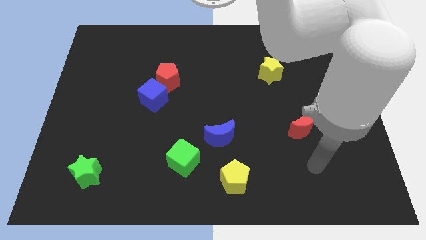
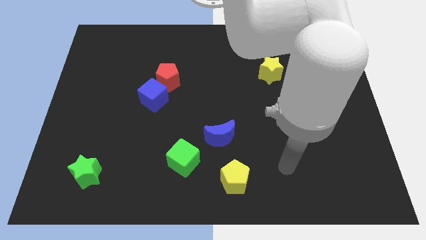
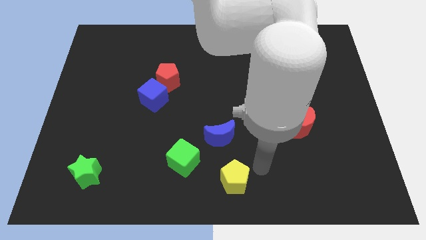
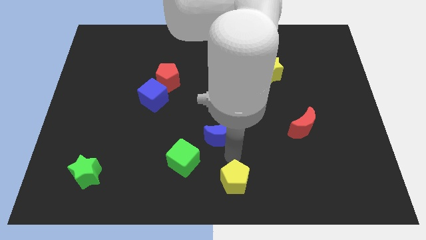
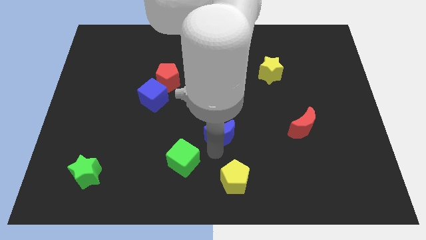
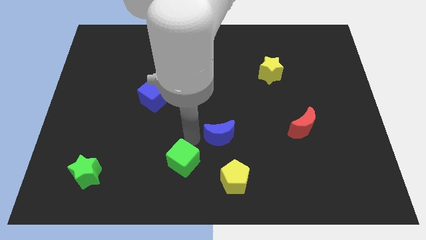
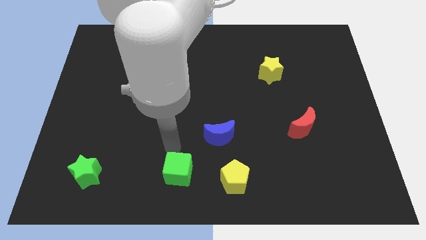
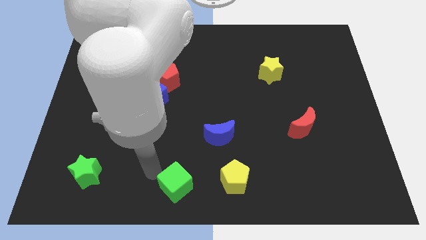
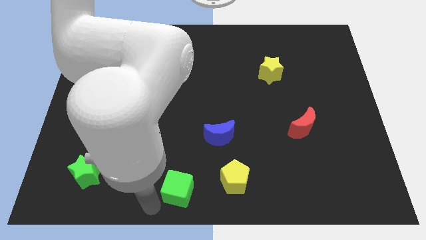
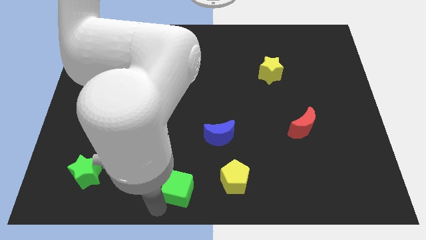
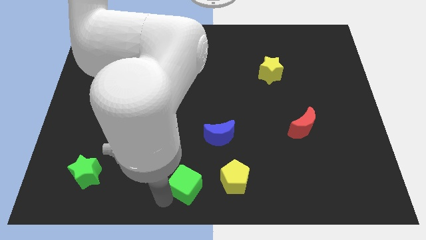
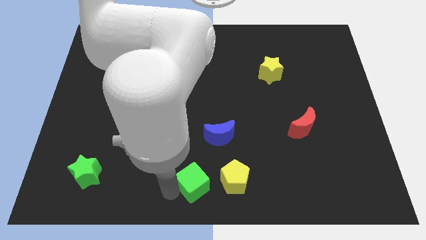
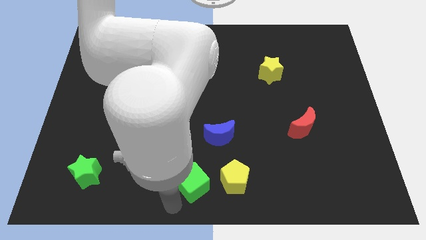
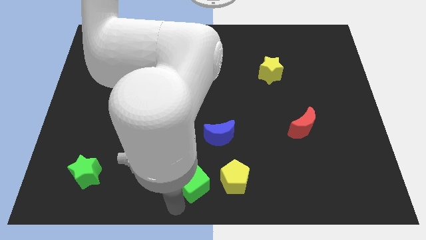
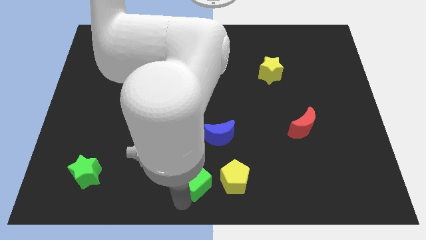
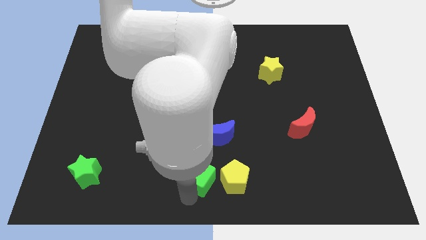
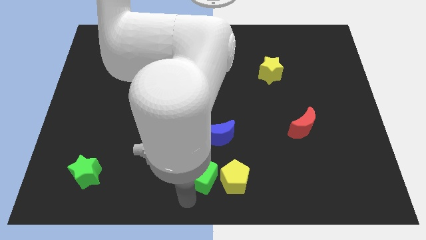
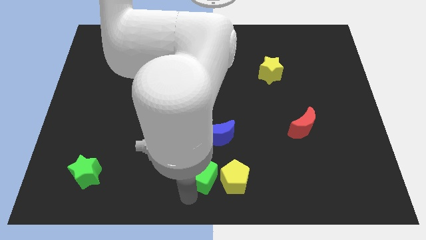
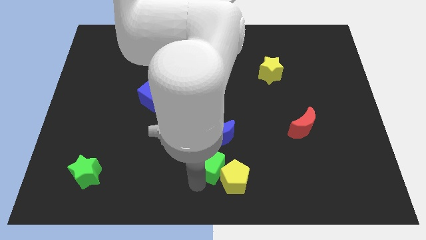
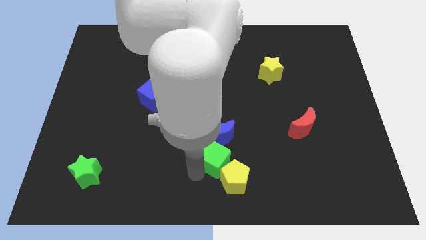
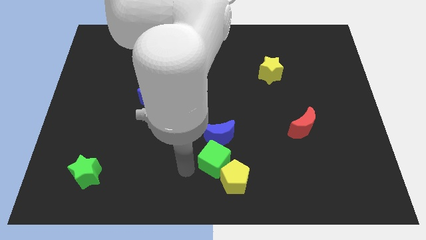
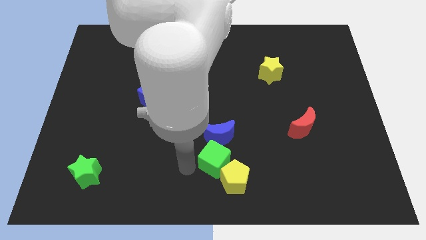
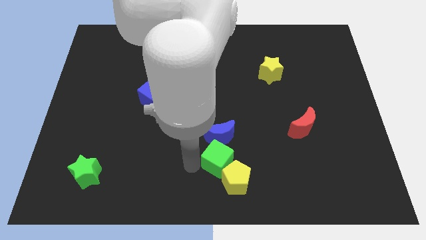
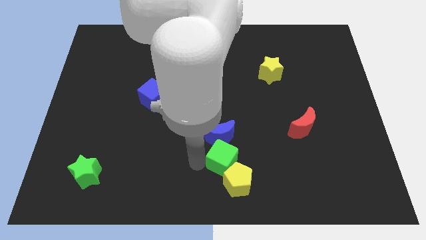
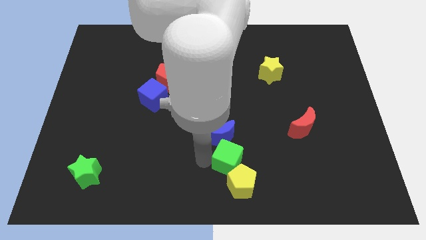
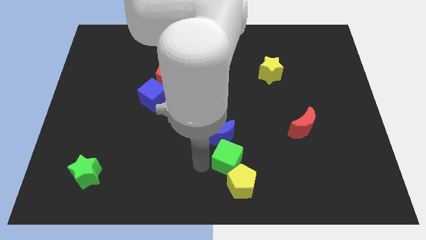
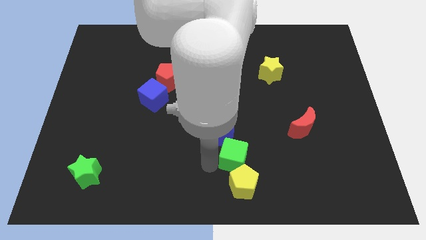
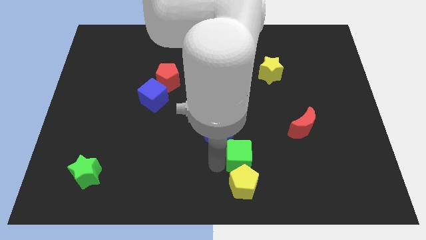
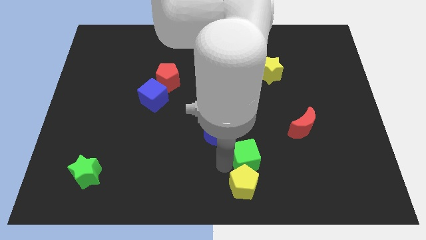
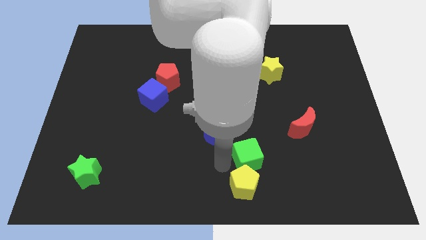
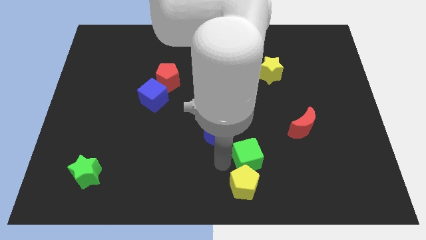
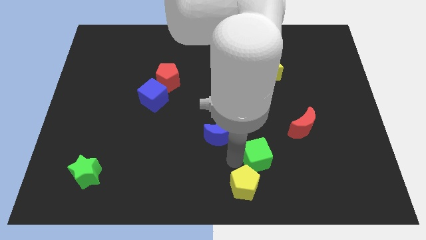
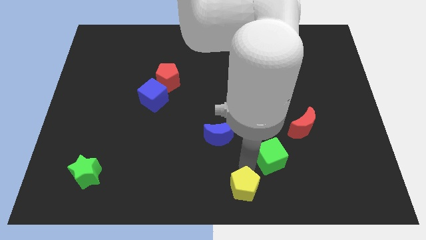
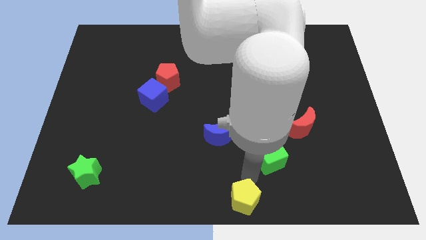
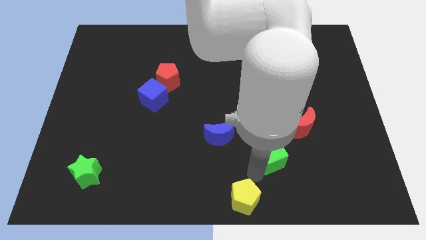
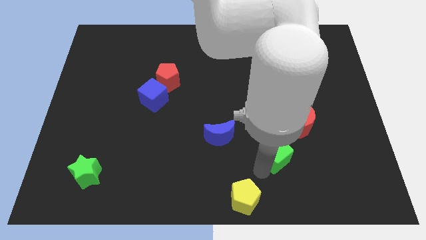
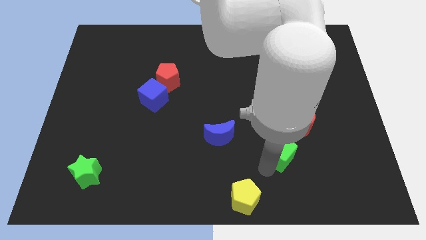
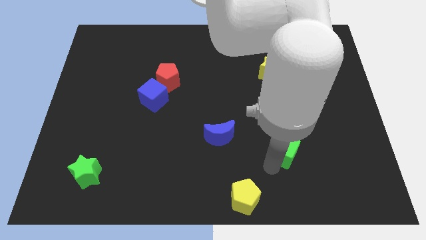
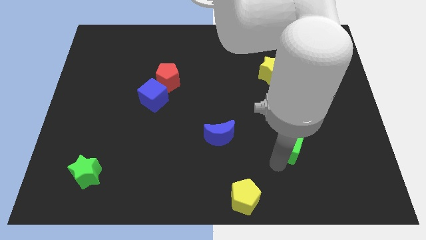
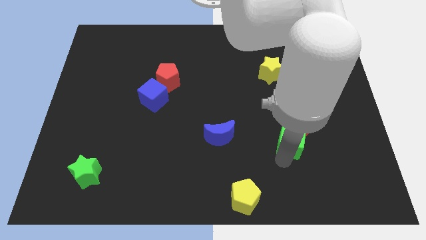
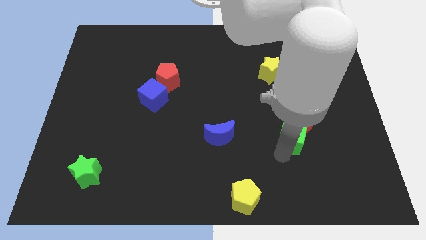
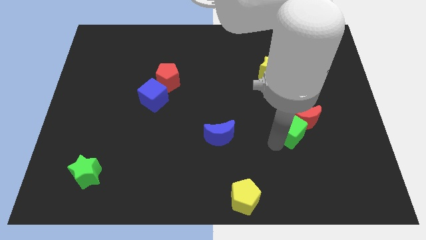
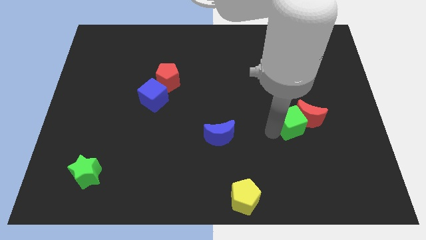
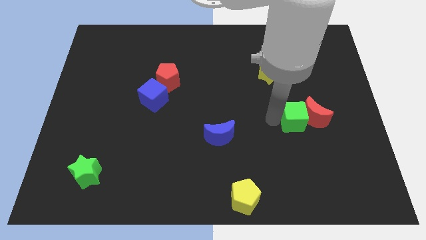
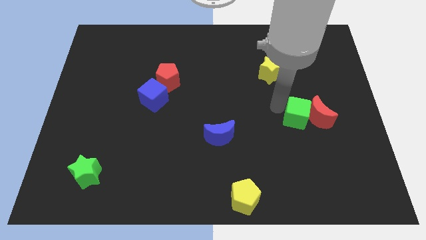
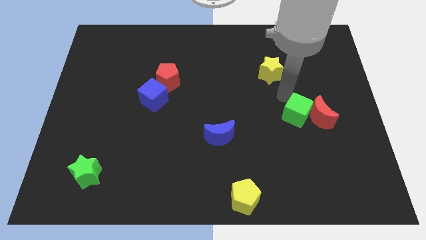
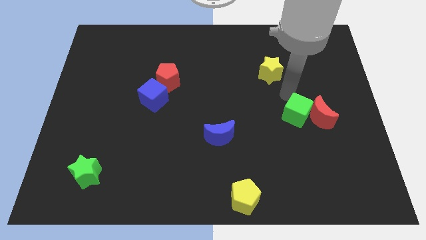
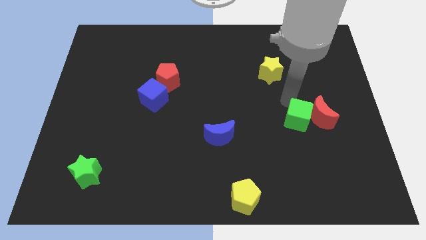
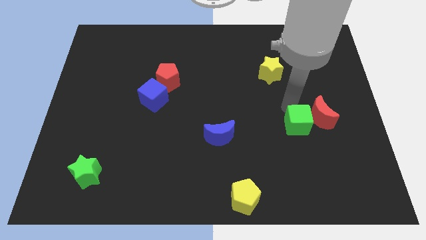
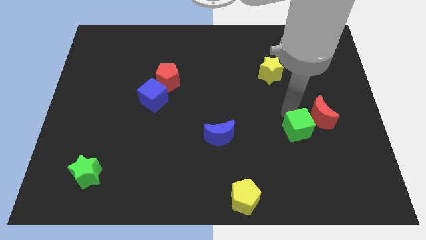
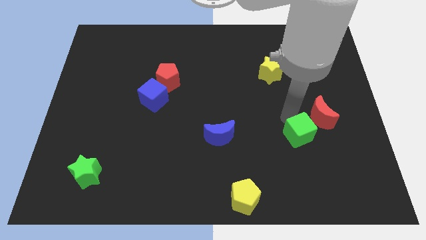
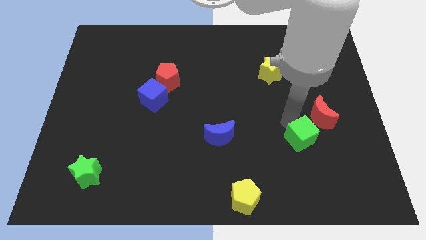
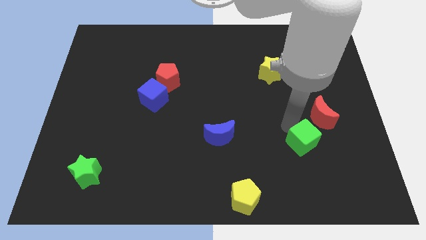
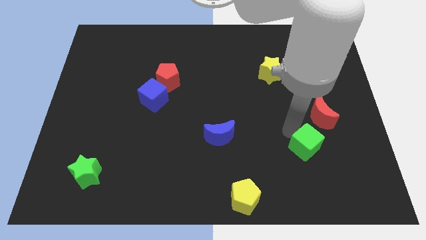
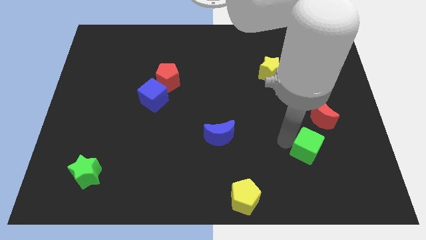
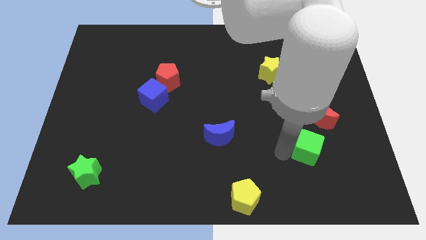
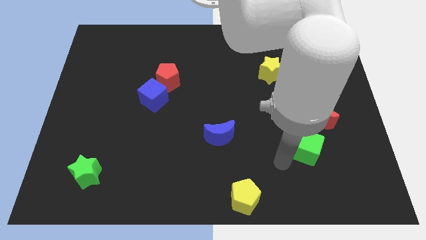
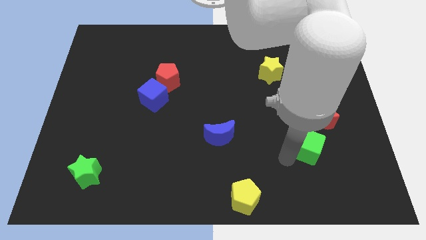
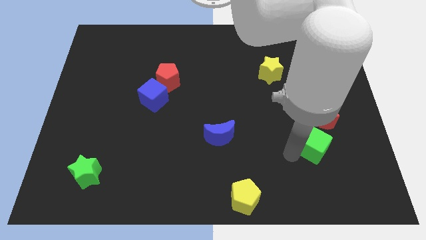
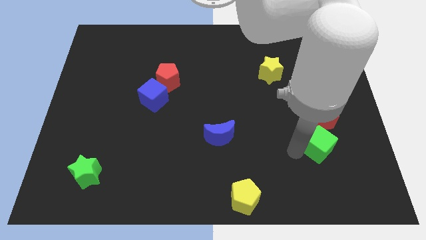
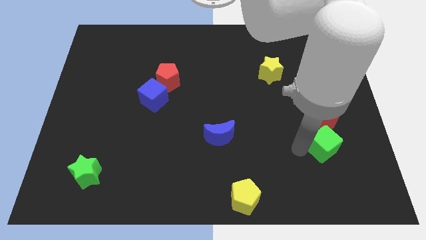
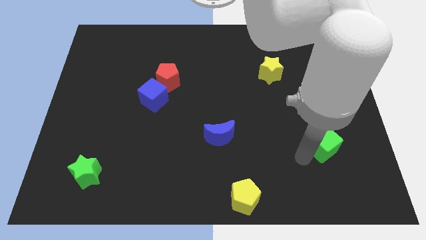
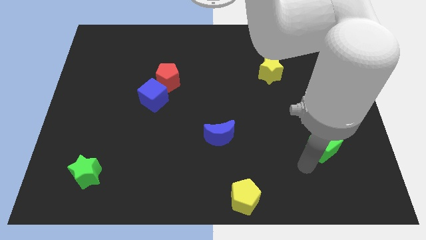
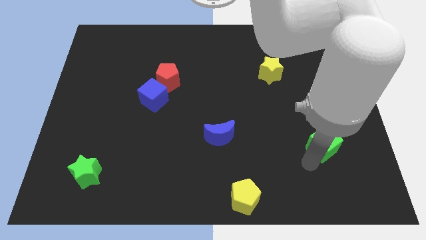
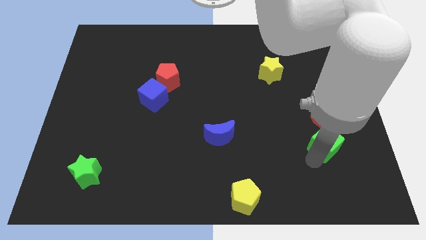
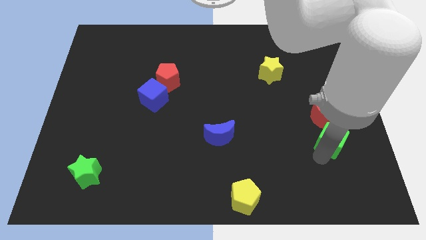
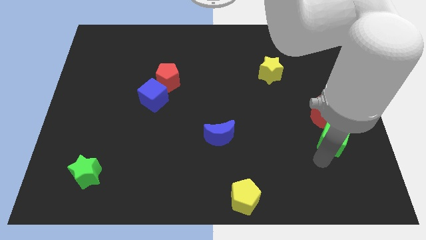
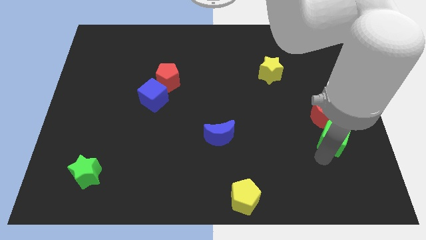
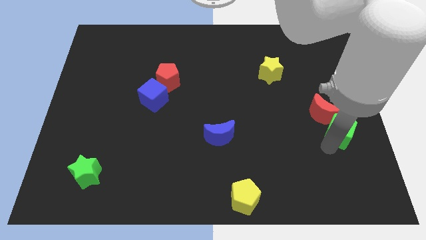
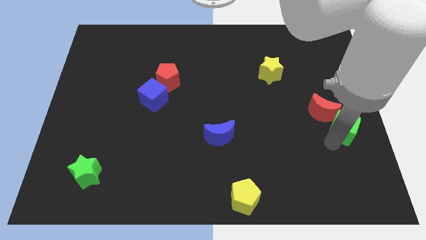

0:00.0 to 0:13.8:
move the green cube to the right side
